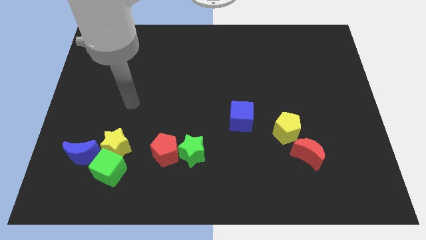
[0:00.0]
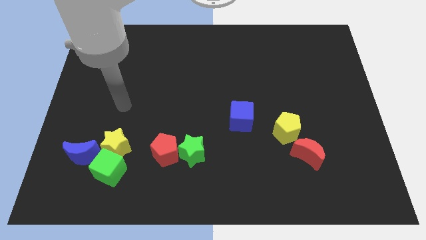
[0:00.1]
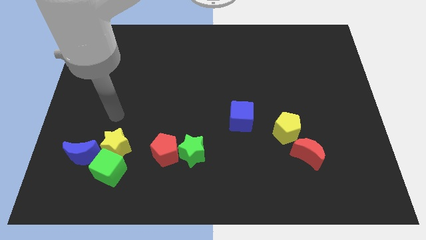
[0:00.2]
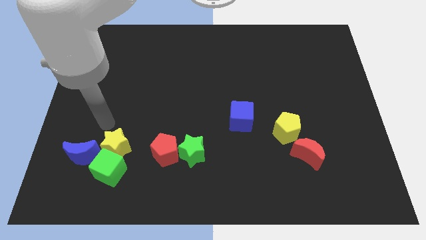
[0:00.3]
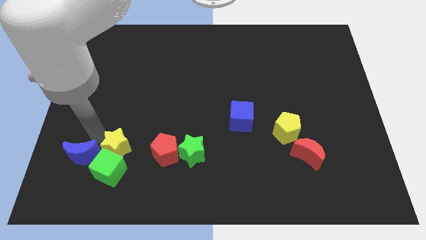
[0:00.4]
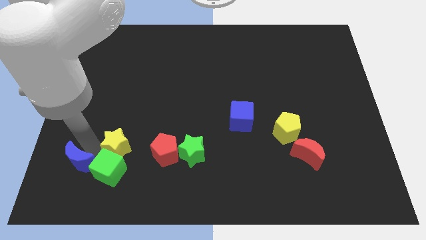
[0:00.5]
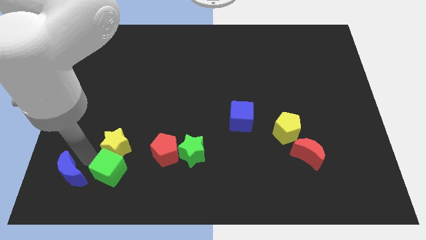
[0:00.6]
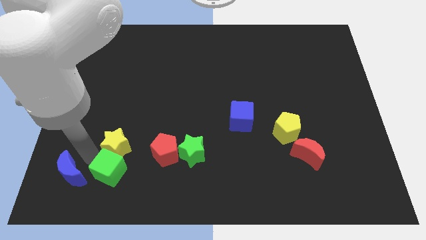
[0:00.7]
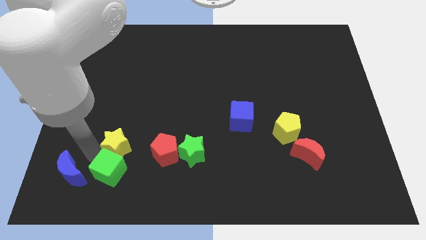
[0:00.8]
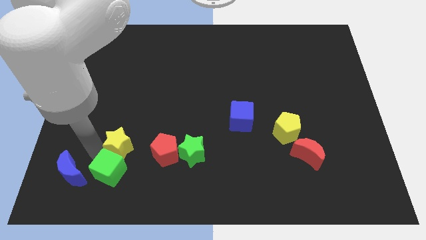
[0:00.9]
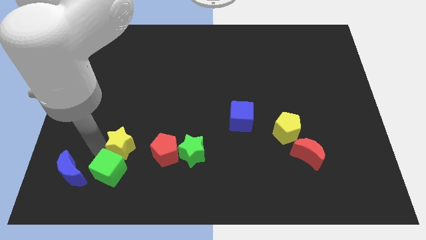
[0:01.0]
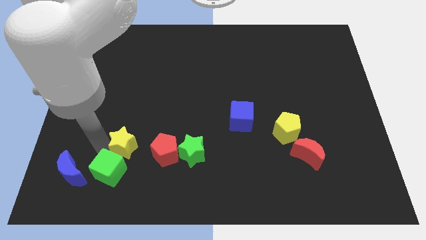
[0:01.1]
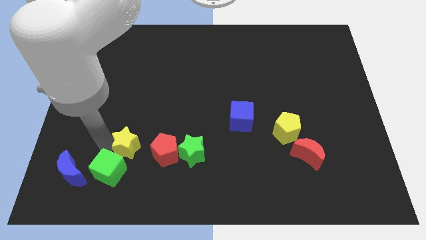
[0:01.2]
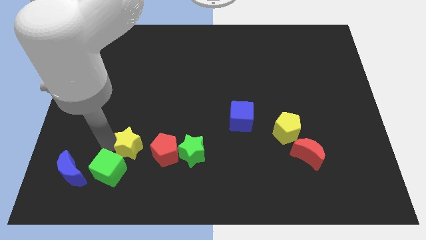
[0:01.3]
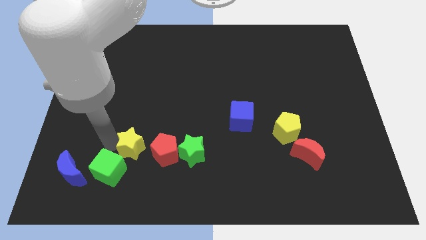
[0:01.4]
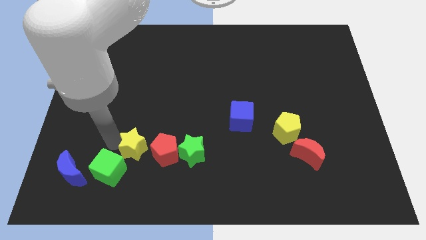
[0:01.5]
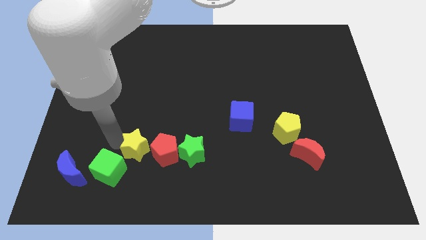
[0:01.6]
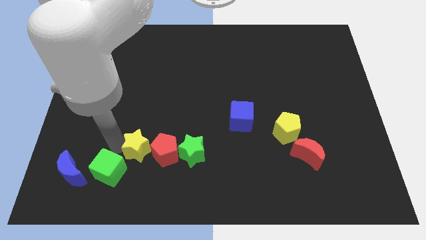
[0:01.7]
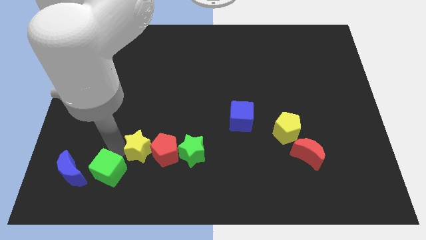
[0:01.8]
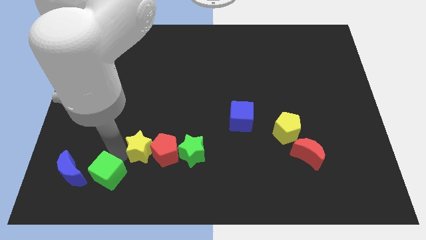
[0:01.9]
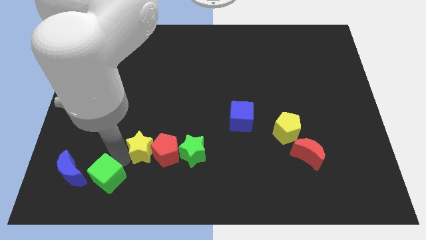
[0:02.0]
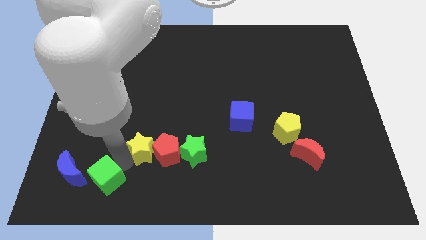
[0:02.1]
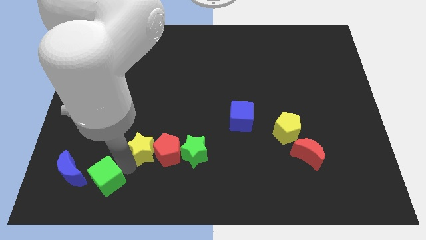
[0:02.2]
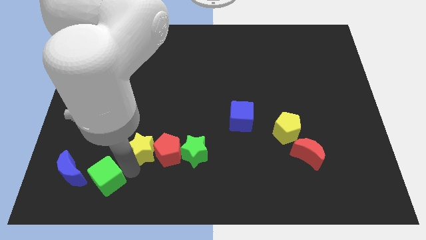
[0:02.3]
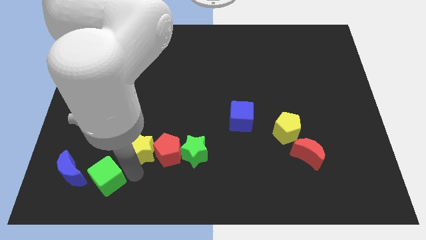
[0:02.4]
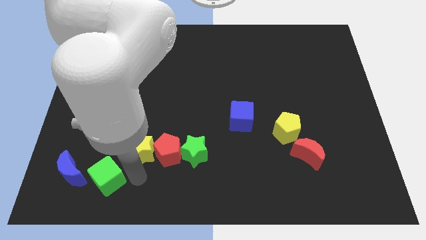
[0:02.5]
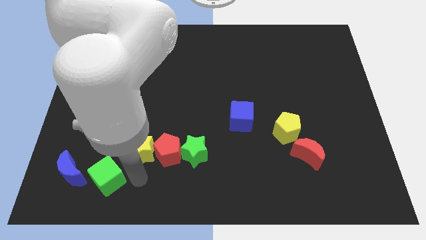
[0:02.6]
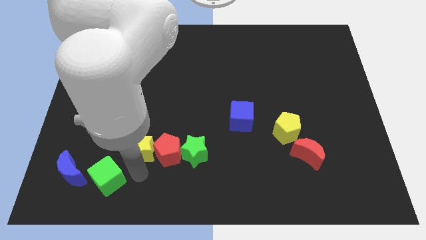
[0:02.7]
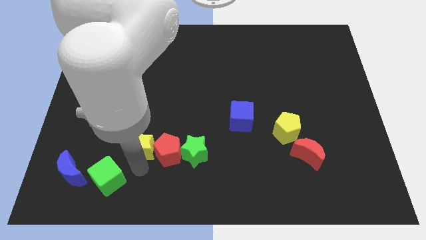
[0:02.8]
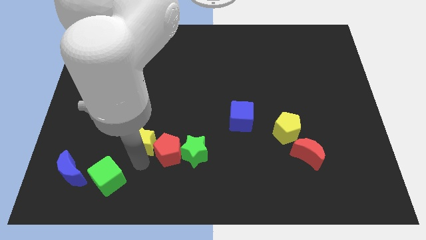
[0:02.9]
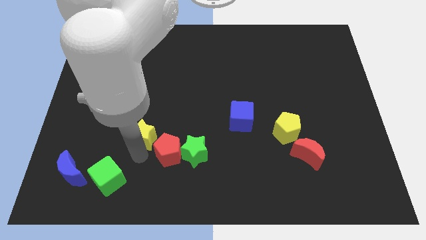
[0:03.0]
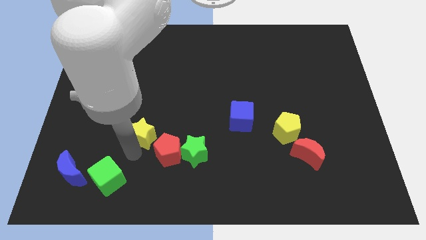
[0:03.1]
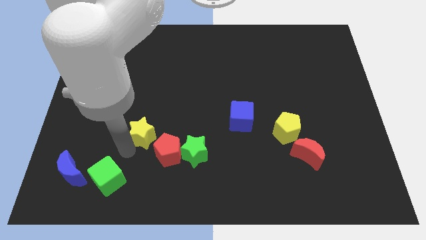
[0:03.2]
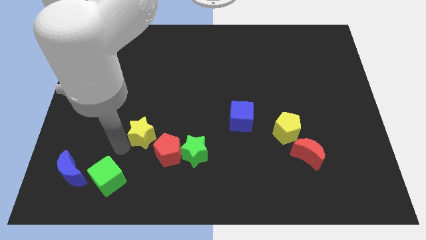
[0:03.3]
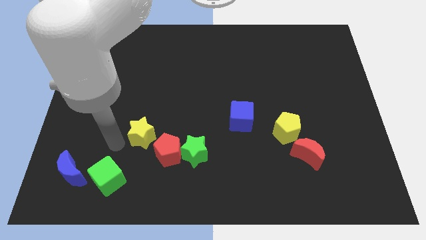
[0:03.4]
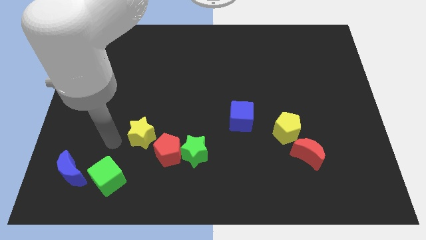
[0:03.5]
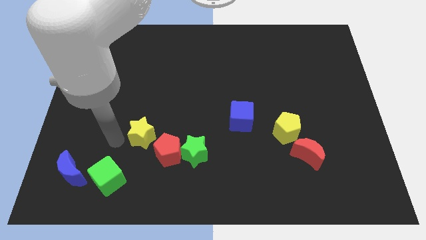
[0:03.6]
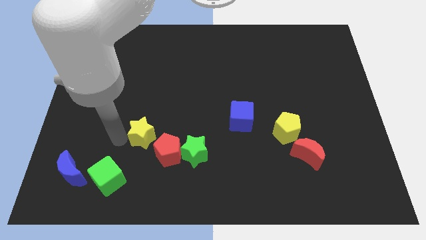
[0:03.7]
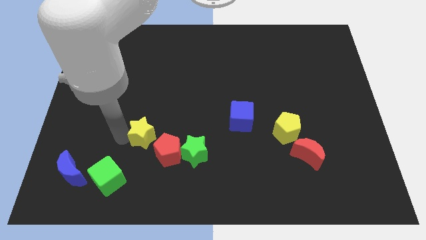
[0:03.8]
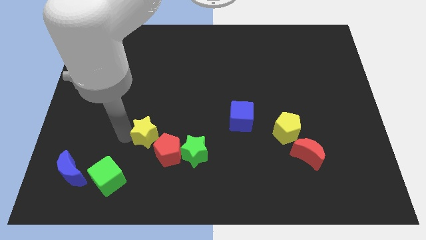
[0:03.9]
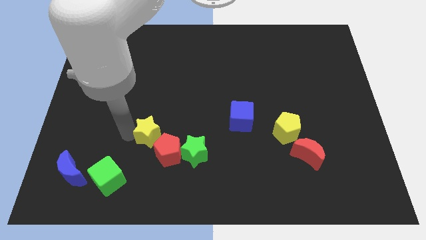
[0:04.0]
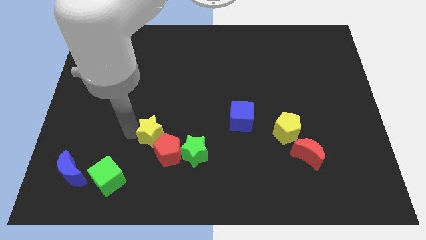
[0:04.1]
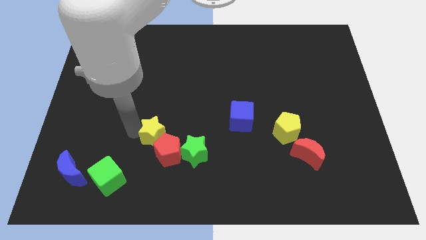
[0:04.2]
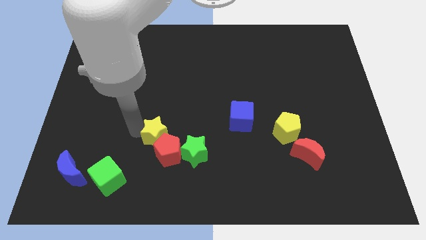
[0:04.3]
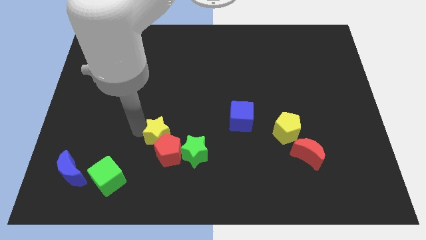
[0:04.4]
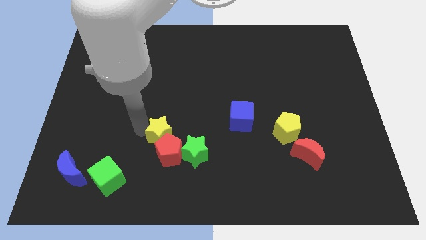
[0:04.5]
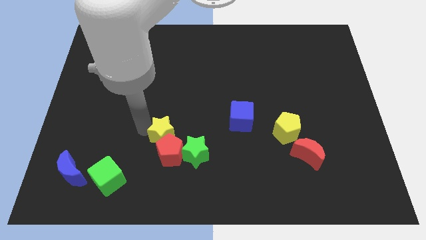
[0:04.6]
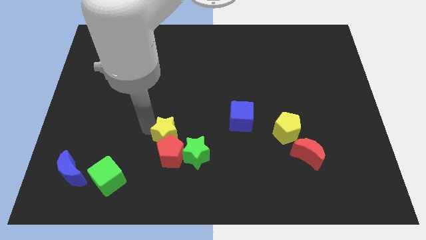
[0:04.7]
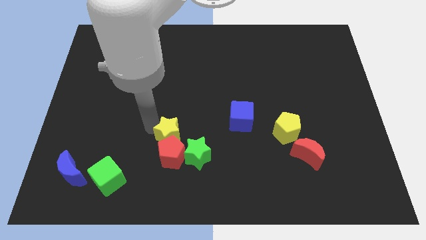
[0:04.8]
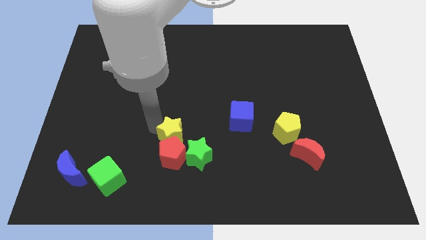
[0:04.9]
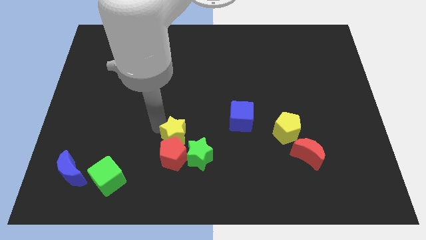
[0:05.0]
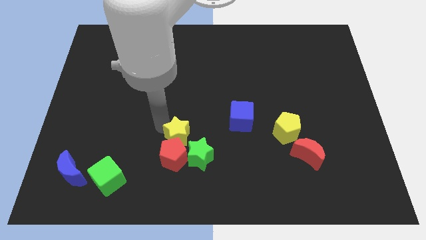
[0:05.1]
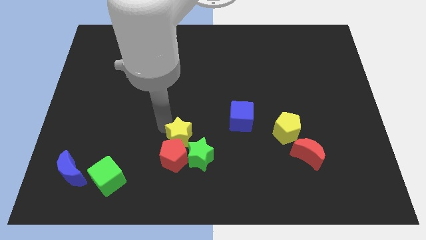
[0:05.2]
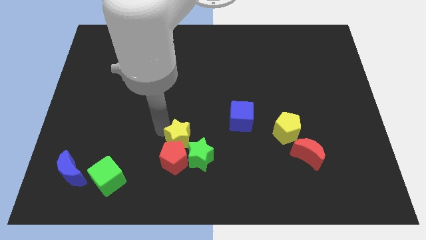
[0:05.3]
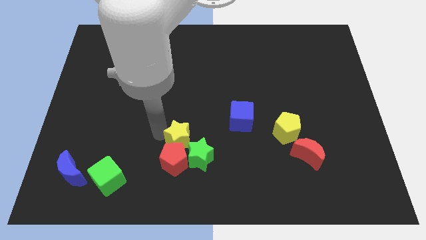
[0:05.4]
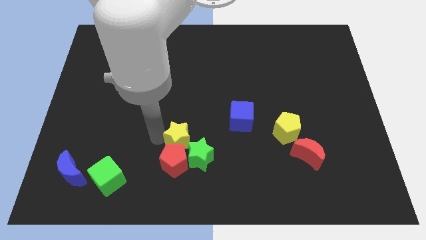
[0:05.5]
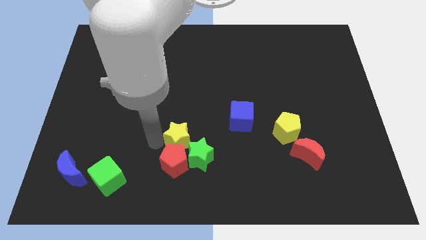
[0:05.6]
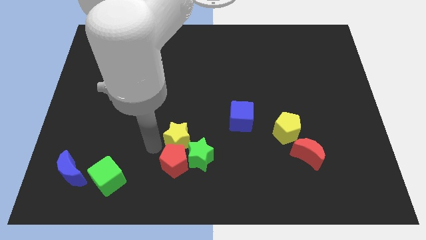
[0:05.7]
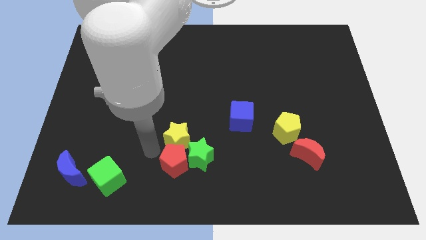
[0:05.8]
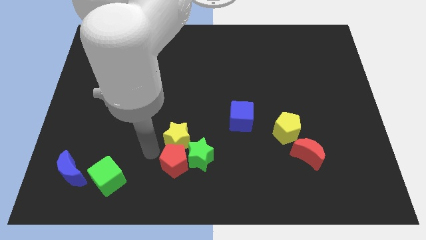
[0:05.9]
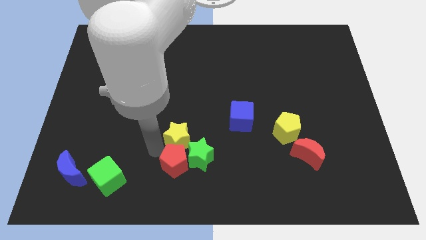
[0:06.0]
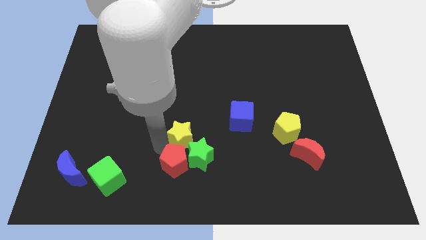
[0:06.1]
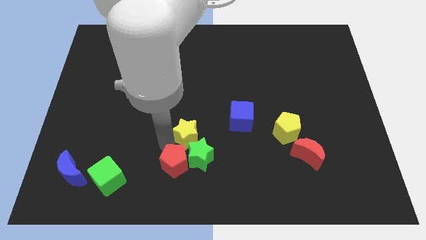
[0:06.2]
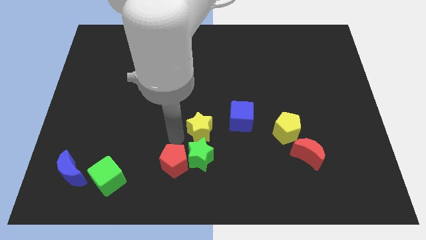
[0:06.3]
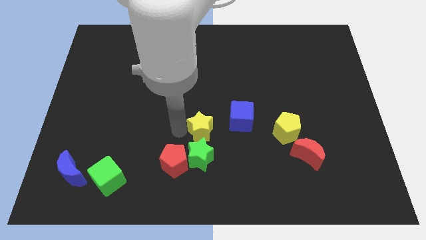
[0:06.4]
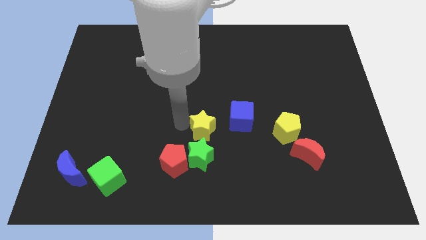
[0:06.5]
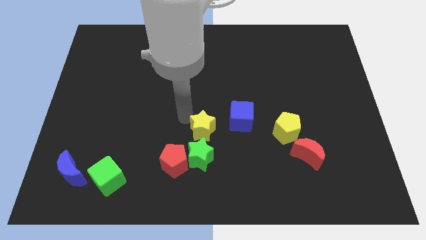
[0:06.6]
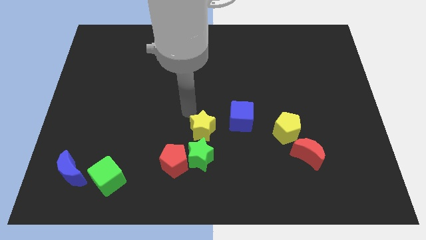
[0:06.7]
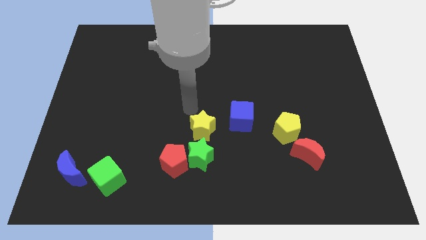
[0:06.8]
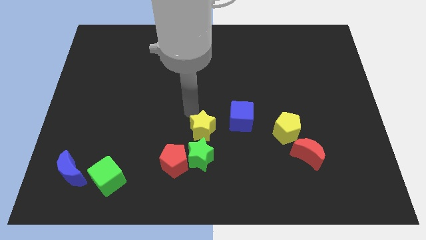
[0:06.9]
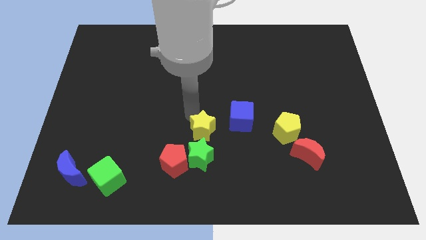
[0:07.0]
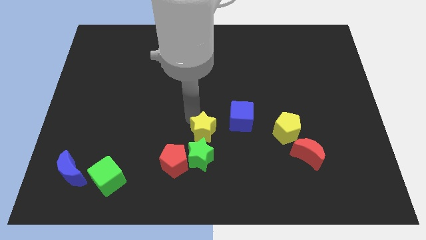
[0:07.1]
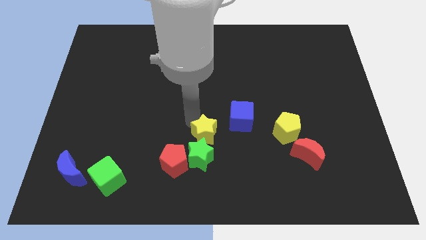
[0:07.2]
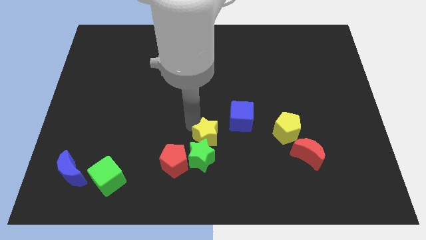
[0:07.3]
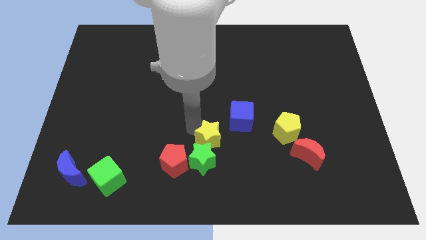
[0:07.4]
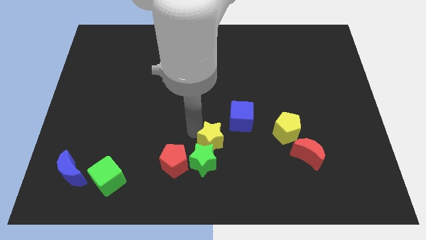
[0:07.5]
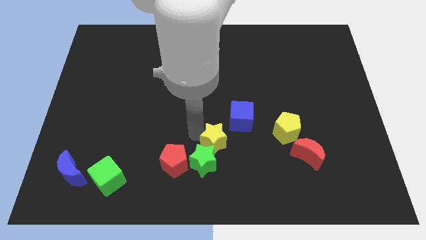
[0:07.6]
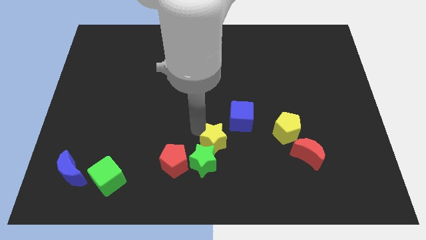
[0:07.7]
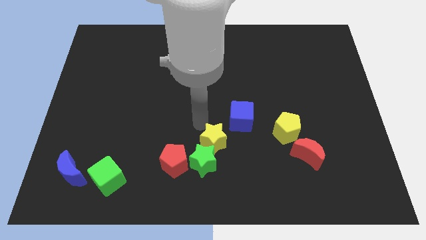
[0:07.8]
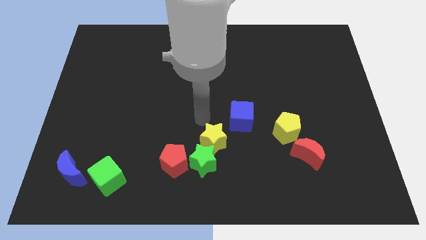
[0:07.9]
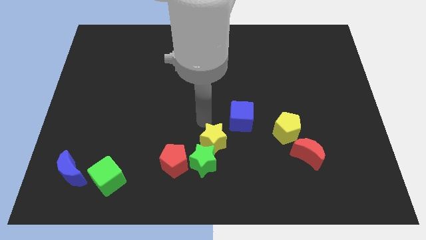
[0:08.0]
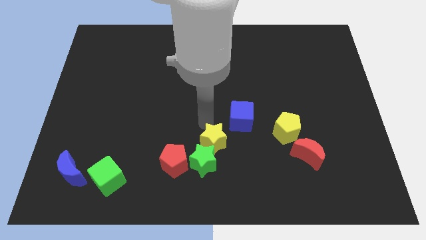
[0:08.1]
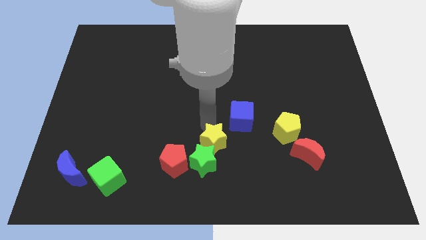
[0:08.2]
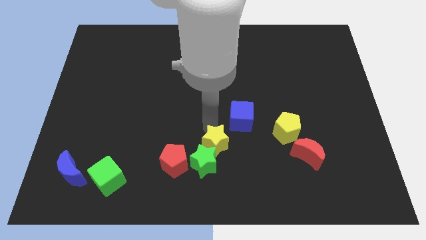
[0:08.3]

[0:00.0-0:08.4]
slide the yellow star to the right side of the red pentagon
